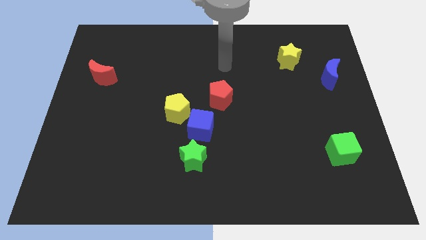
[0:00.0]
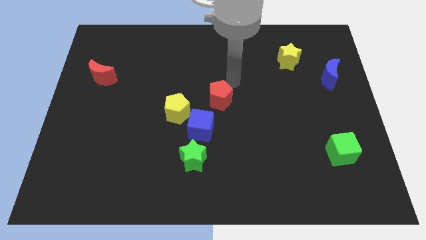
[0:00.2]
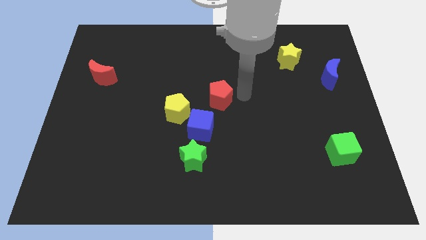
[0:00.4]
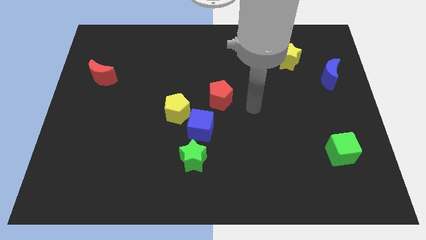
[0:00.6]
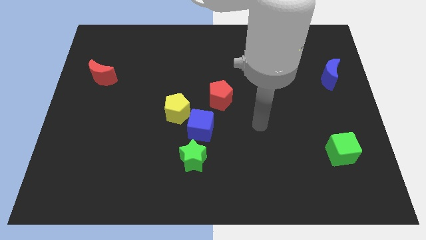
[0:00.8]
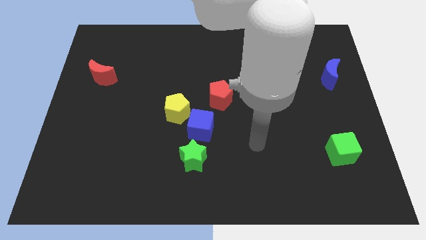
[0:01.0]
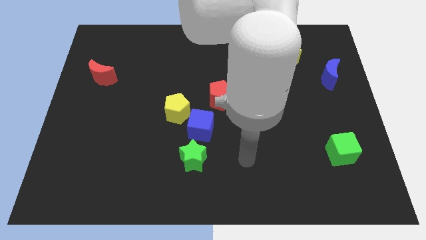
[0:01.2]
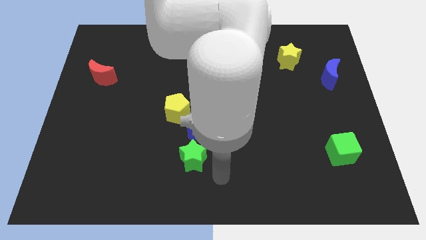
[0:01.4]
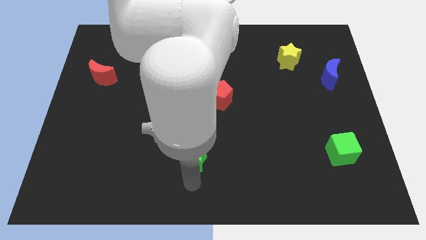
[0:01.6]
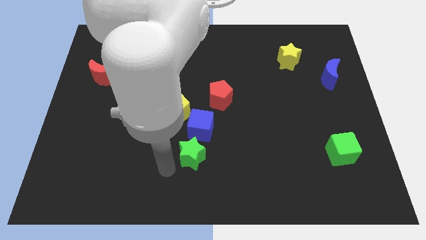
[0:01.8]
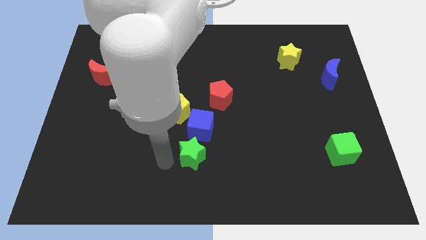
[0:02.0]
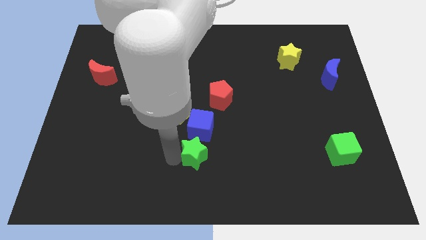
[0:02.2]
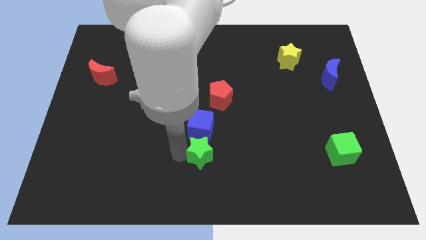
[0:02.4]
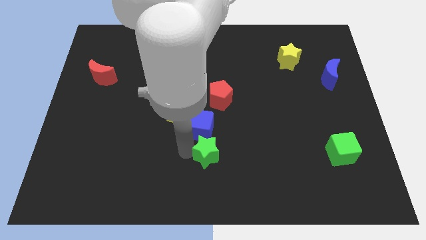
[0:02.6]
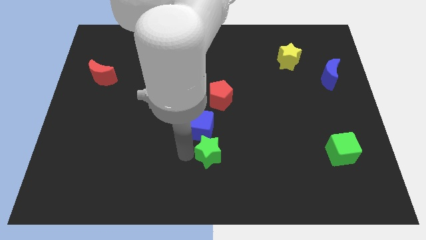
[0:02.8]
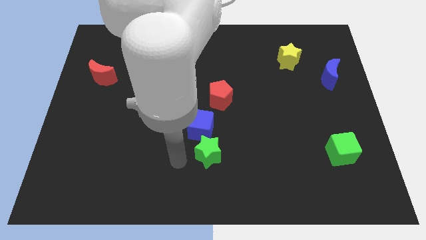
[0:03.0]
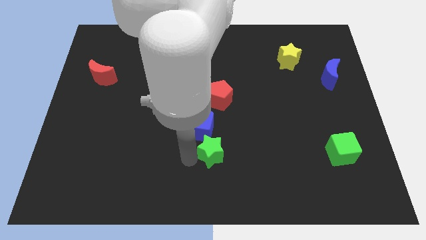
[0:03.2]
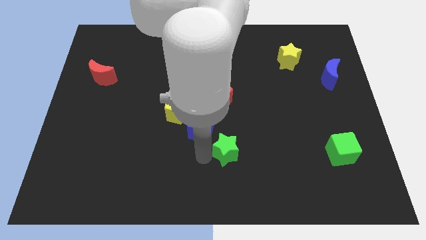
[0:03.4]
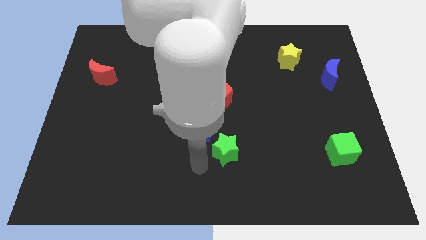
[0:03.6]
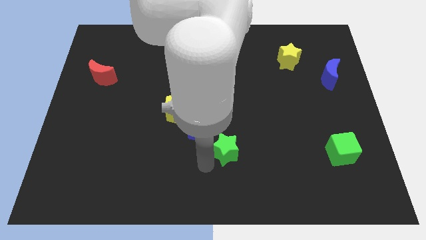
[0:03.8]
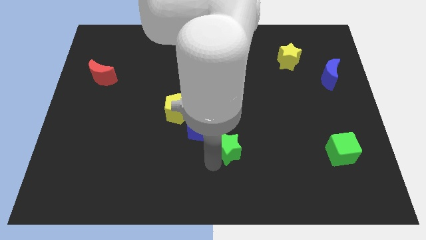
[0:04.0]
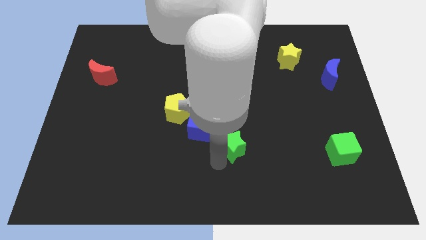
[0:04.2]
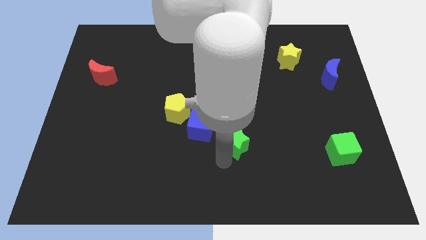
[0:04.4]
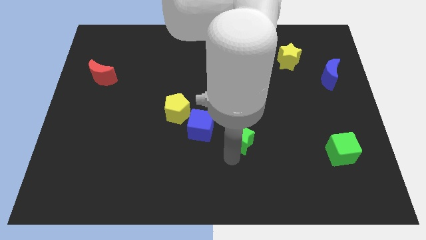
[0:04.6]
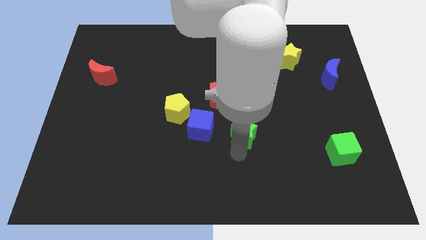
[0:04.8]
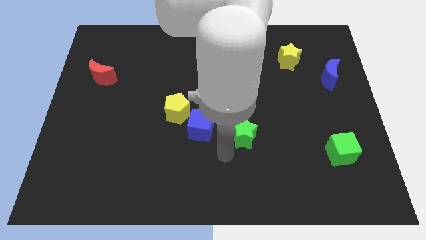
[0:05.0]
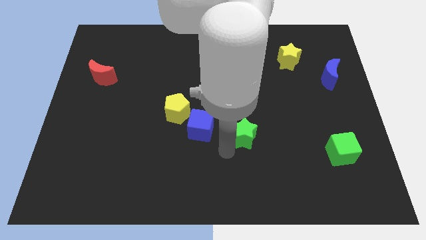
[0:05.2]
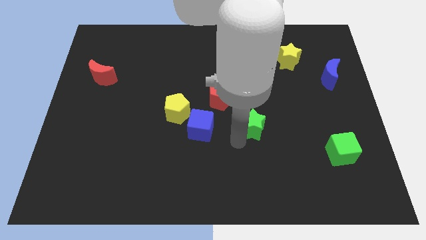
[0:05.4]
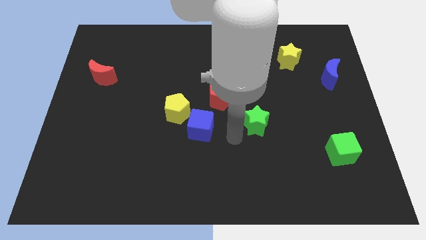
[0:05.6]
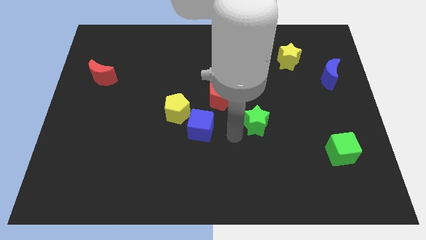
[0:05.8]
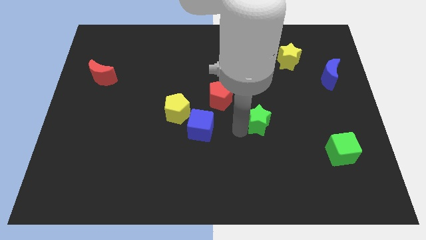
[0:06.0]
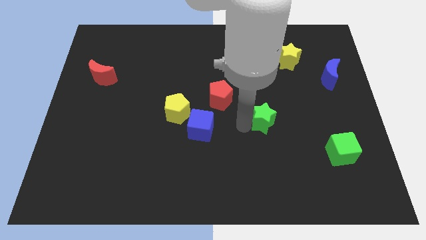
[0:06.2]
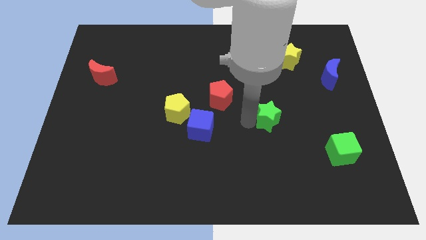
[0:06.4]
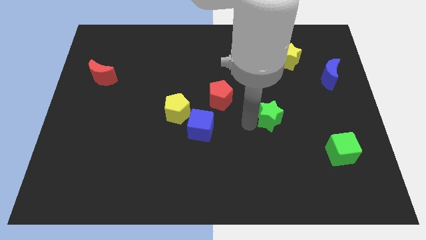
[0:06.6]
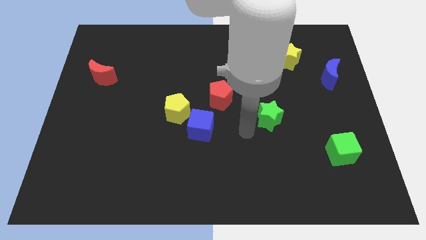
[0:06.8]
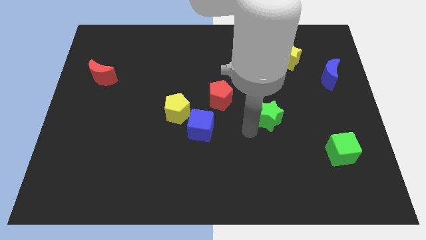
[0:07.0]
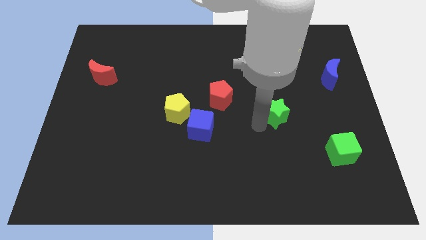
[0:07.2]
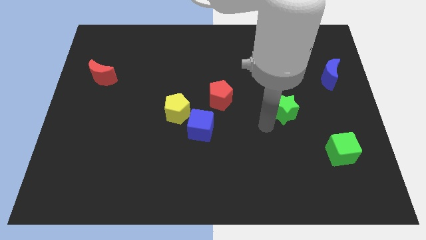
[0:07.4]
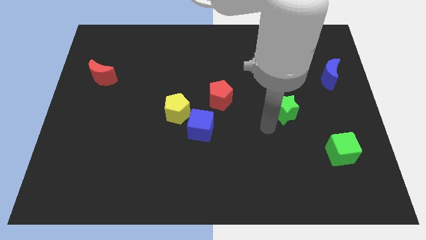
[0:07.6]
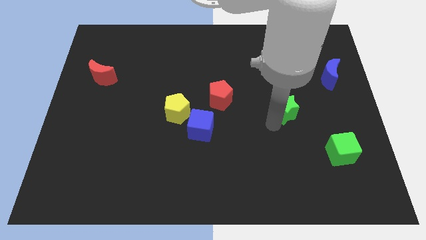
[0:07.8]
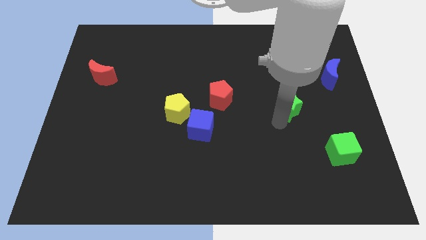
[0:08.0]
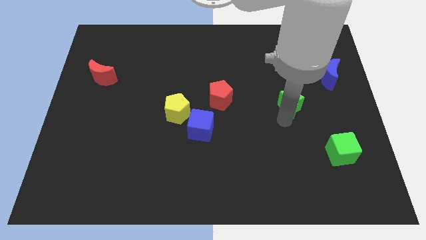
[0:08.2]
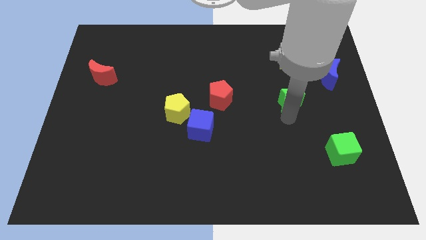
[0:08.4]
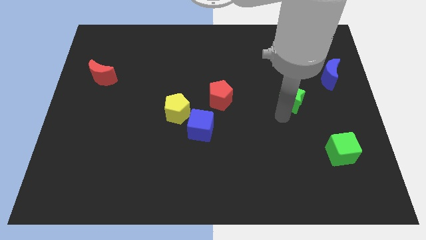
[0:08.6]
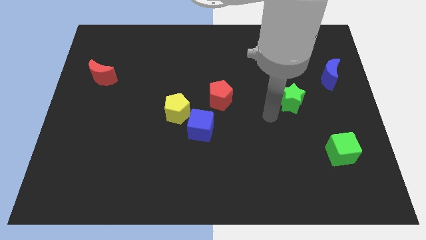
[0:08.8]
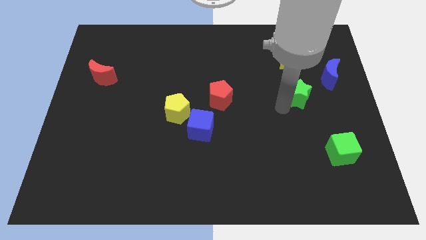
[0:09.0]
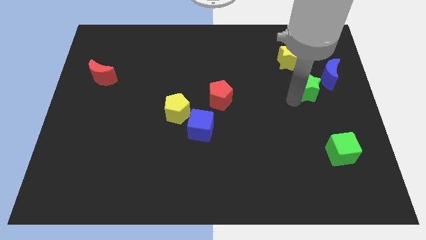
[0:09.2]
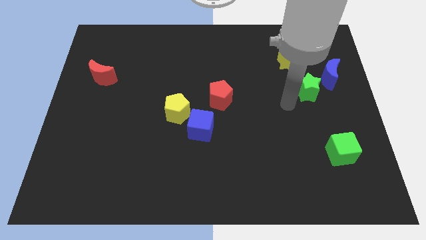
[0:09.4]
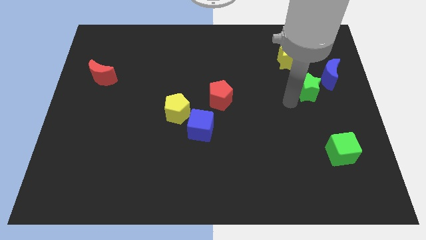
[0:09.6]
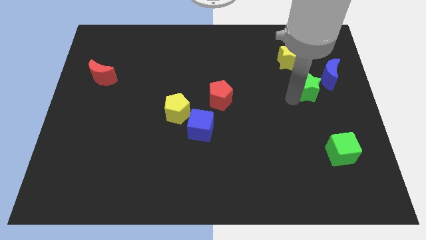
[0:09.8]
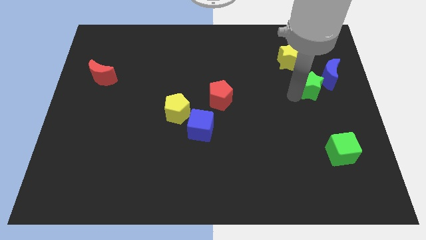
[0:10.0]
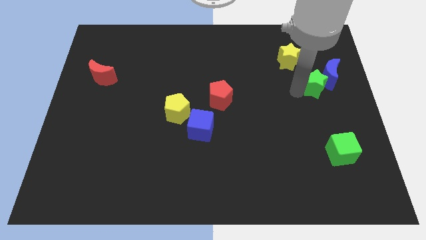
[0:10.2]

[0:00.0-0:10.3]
put the green star close to the blue moon

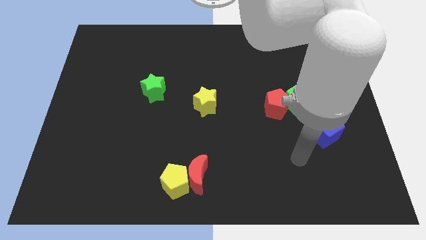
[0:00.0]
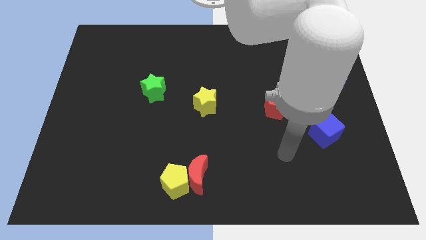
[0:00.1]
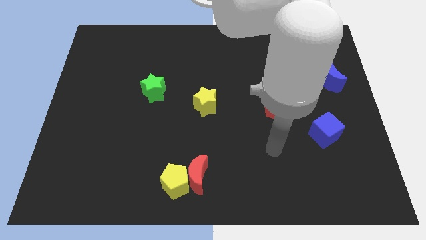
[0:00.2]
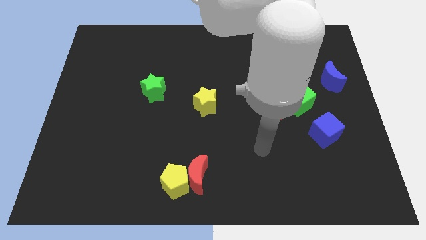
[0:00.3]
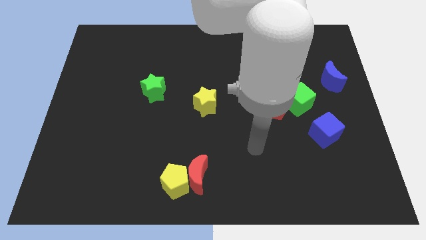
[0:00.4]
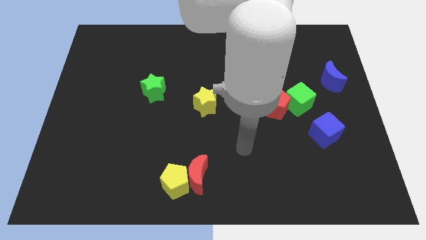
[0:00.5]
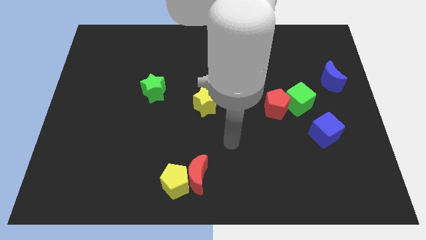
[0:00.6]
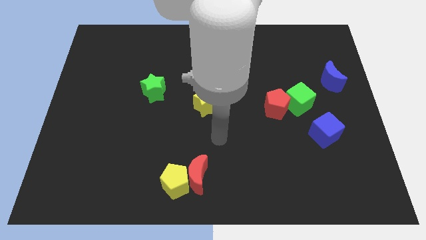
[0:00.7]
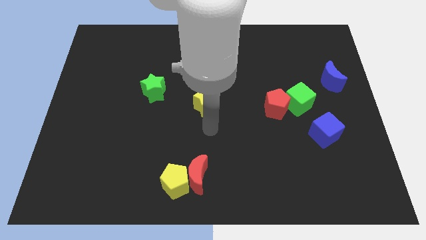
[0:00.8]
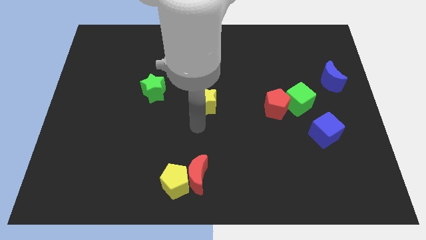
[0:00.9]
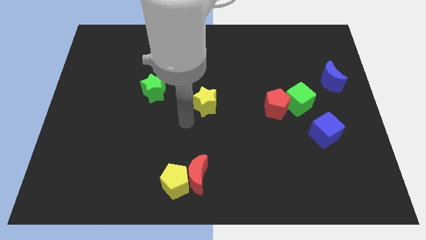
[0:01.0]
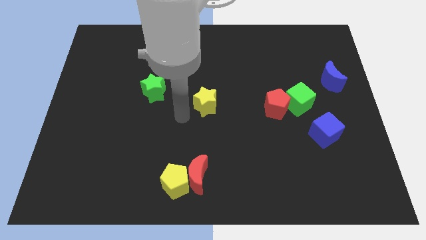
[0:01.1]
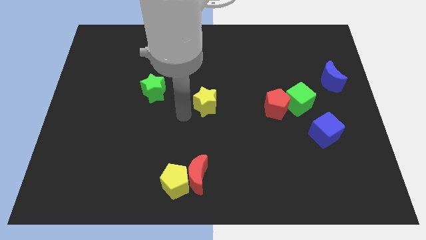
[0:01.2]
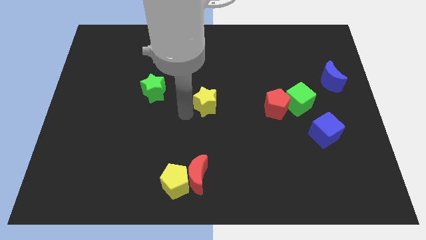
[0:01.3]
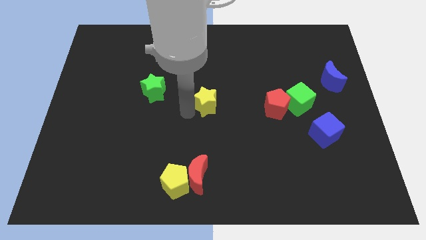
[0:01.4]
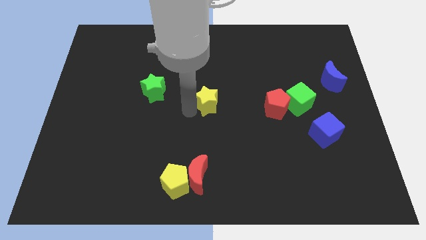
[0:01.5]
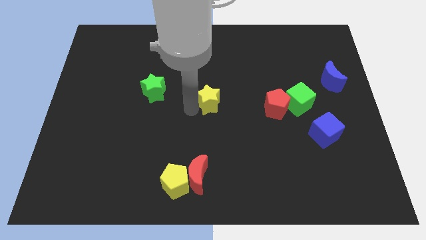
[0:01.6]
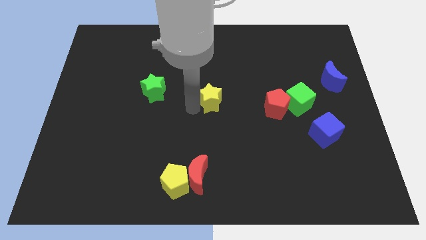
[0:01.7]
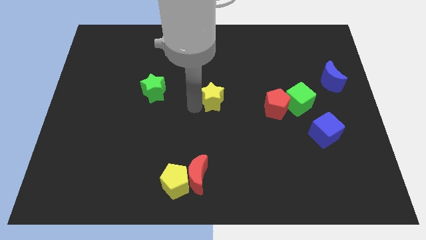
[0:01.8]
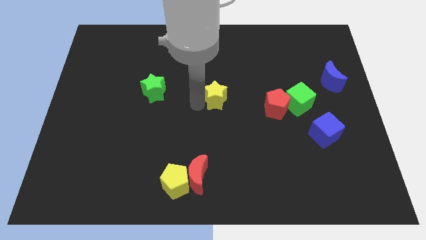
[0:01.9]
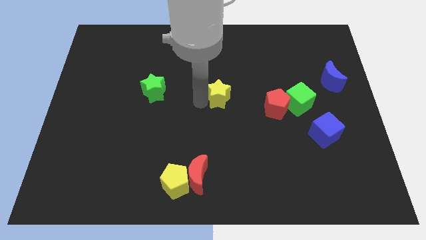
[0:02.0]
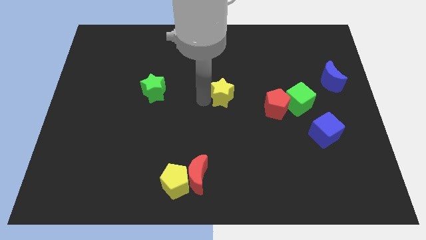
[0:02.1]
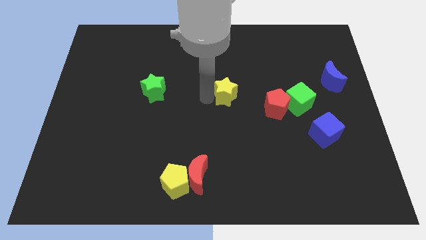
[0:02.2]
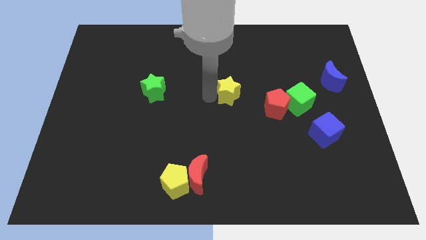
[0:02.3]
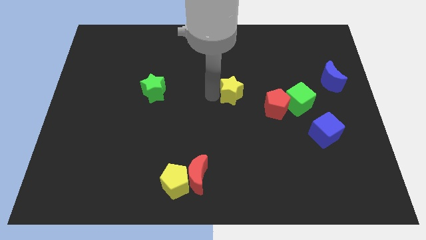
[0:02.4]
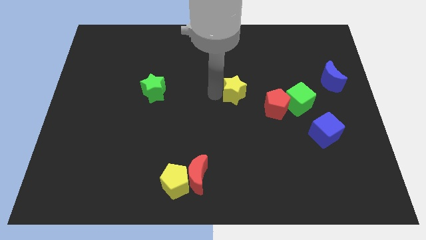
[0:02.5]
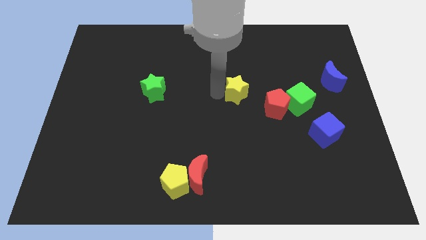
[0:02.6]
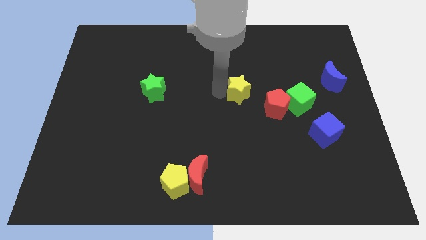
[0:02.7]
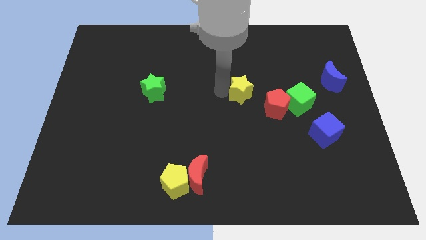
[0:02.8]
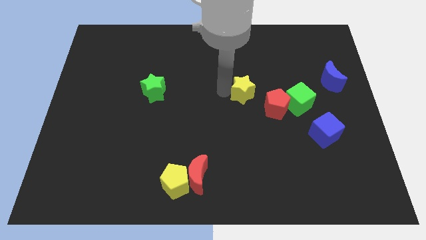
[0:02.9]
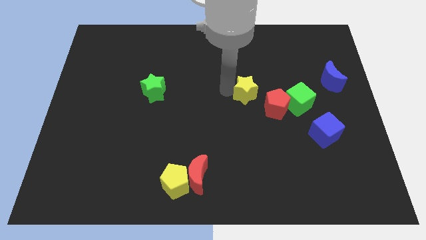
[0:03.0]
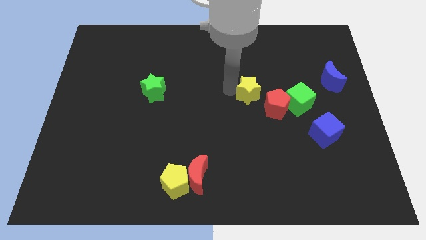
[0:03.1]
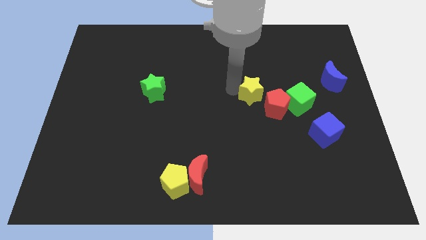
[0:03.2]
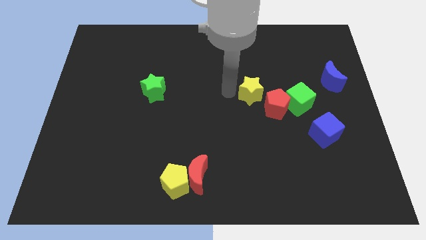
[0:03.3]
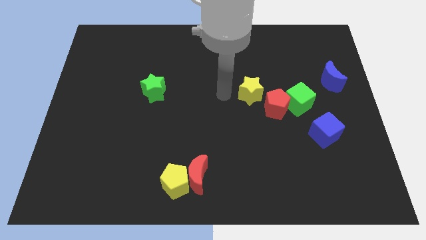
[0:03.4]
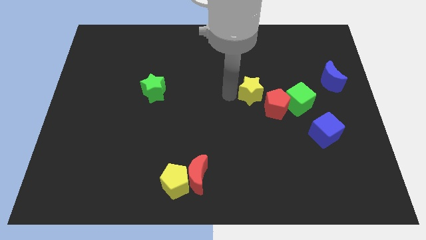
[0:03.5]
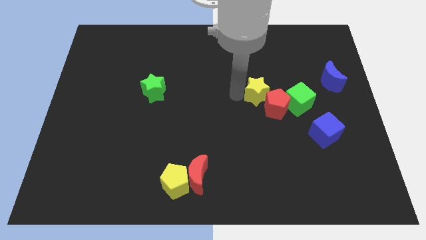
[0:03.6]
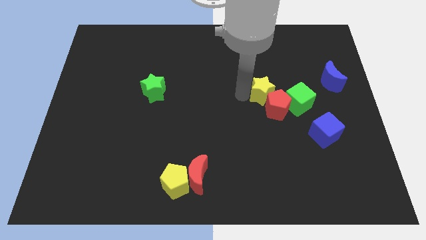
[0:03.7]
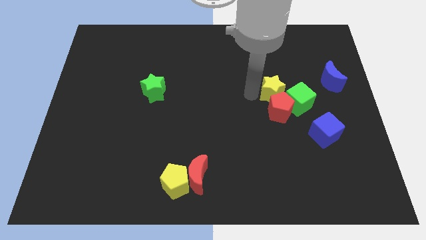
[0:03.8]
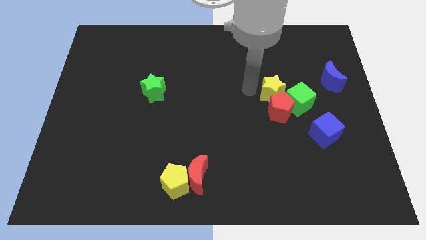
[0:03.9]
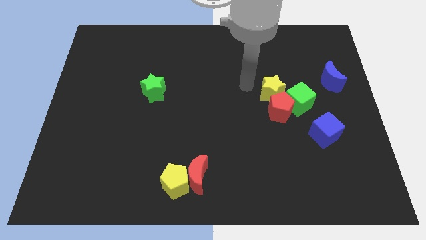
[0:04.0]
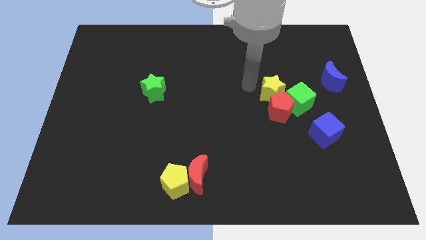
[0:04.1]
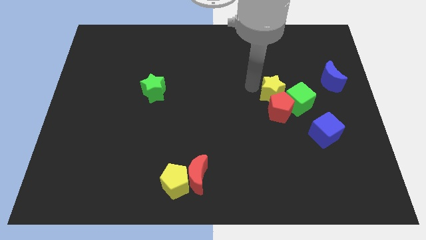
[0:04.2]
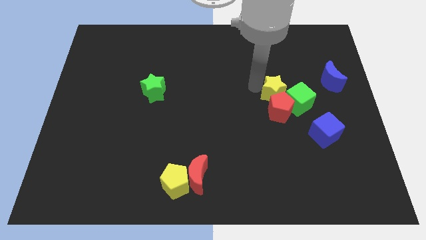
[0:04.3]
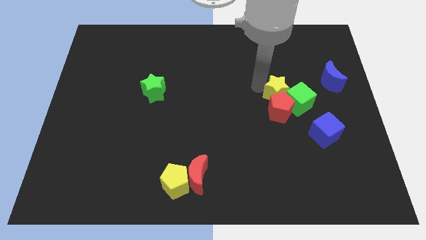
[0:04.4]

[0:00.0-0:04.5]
put the yellow star towards the green cube
